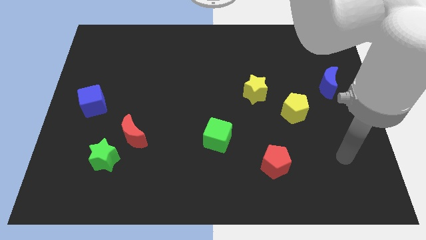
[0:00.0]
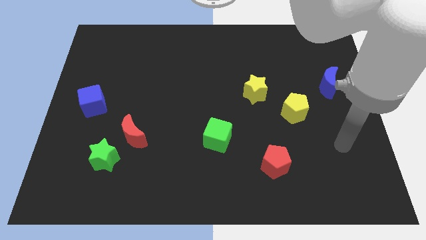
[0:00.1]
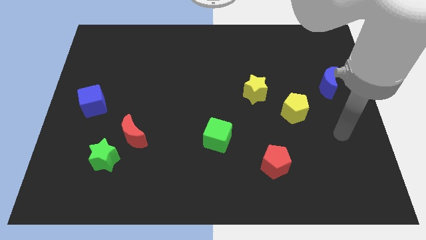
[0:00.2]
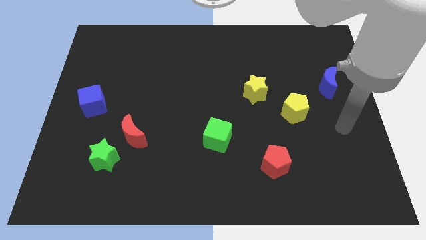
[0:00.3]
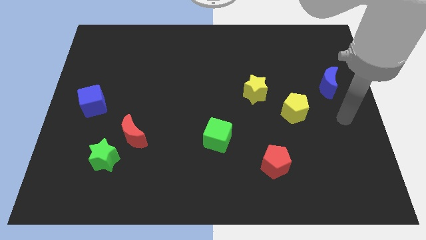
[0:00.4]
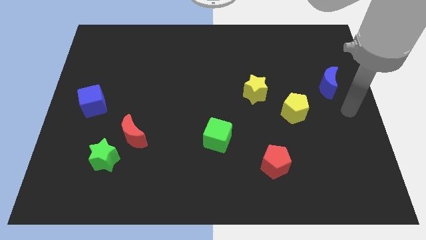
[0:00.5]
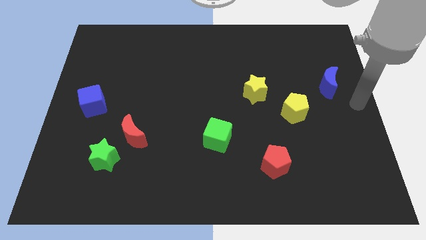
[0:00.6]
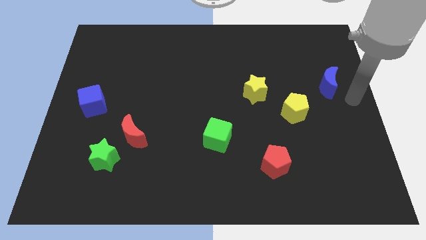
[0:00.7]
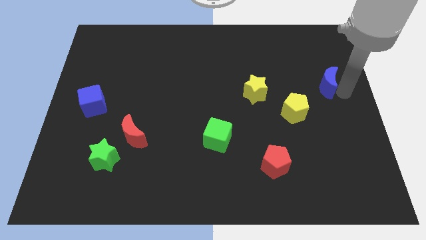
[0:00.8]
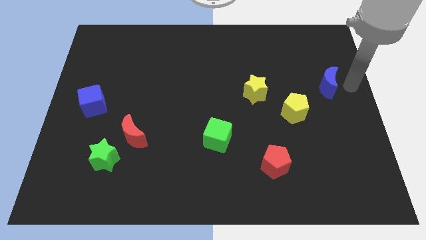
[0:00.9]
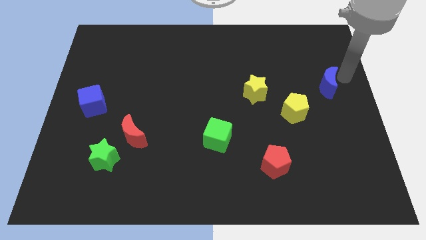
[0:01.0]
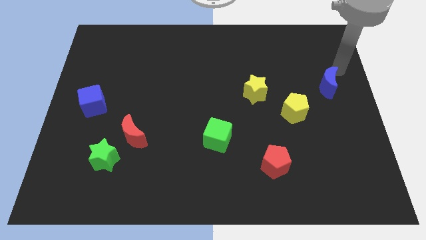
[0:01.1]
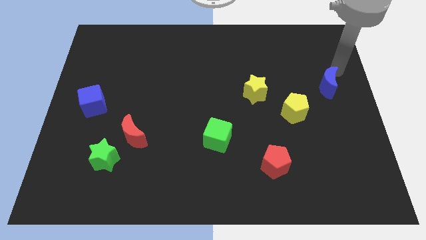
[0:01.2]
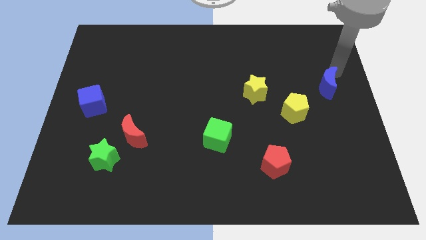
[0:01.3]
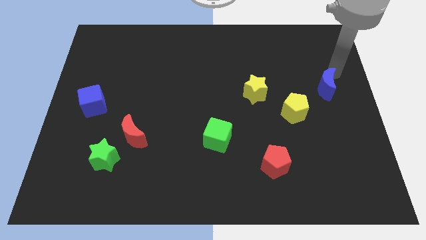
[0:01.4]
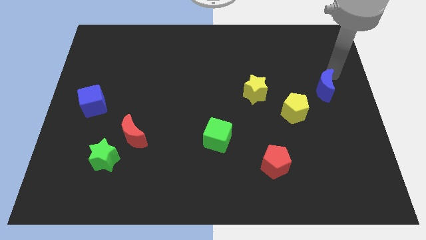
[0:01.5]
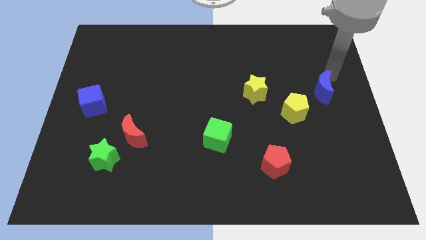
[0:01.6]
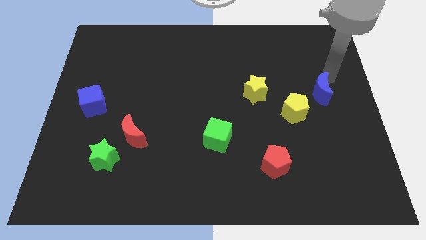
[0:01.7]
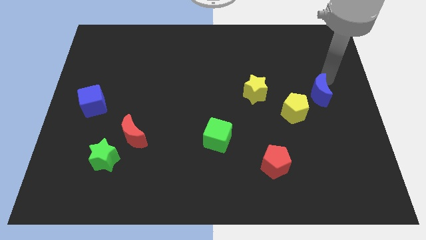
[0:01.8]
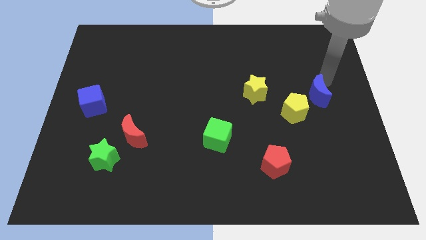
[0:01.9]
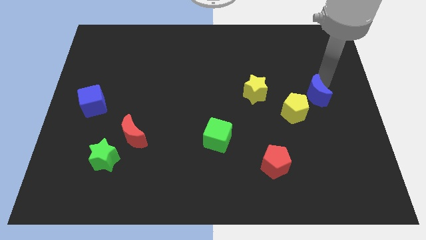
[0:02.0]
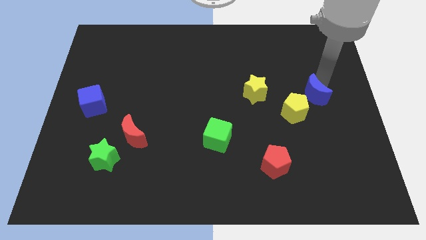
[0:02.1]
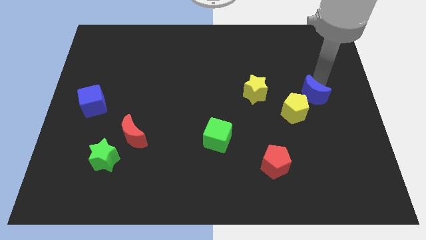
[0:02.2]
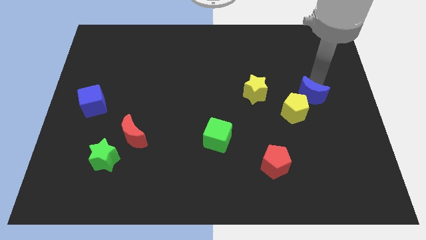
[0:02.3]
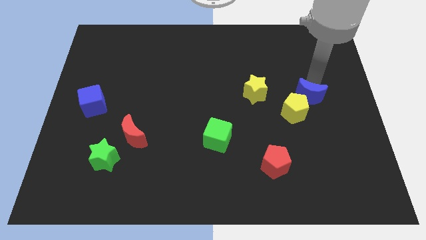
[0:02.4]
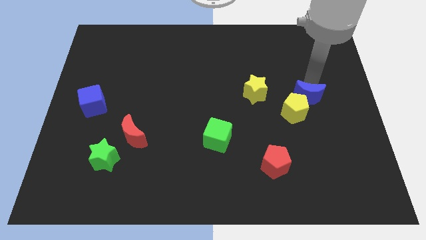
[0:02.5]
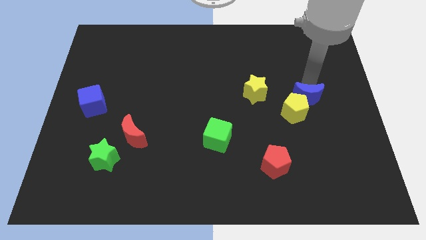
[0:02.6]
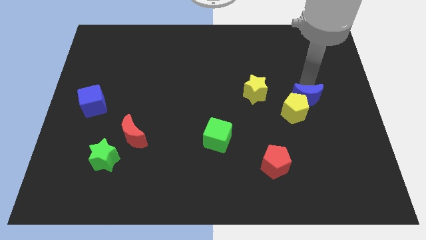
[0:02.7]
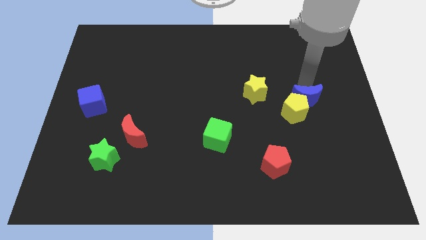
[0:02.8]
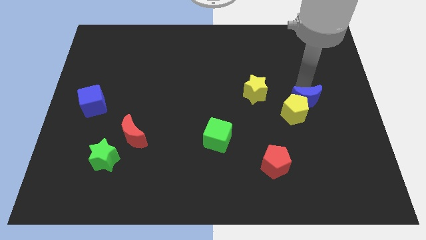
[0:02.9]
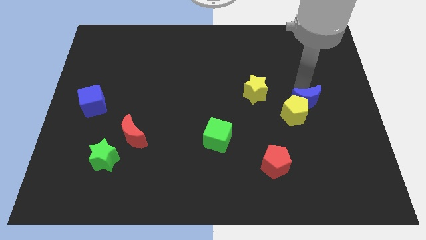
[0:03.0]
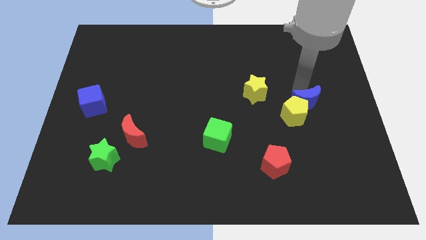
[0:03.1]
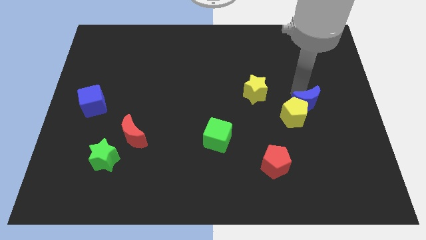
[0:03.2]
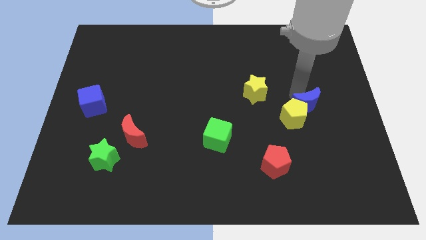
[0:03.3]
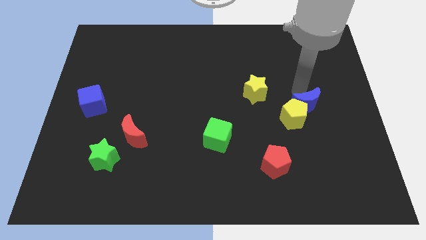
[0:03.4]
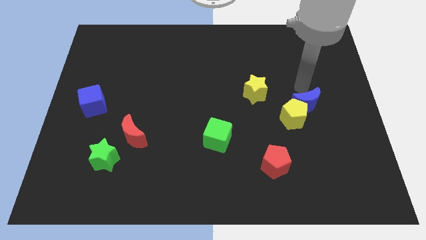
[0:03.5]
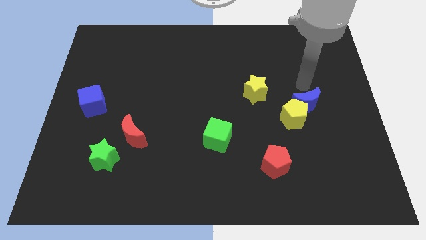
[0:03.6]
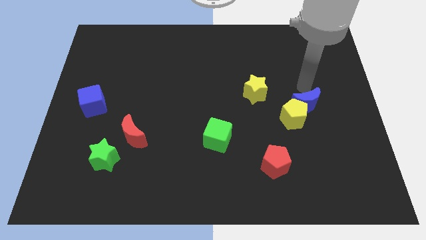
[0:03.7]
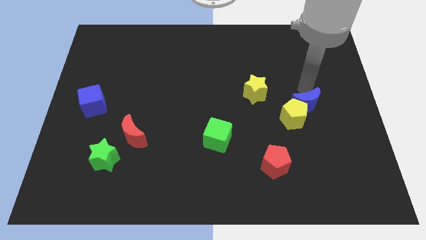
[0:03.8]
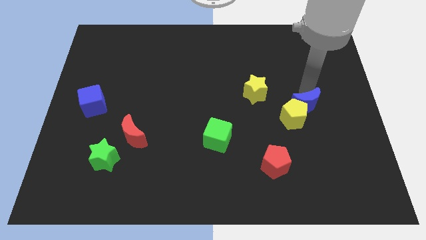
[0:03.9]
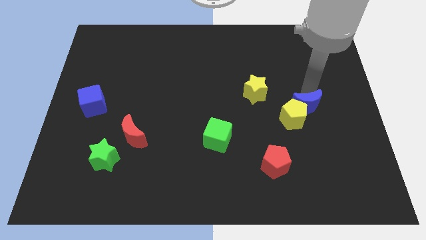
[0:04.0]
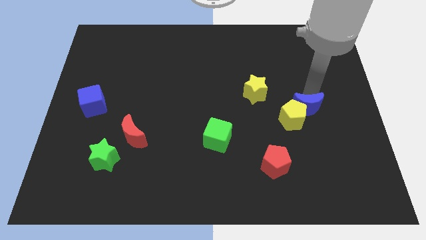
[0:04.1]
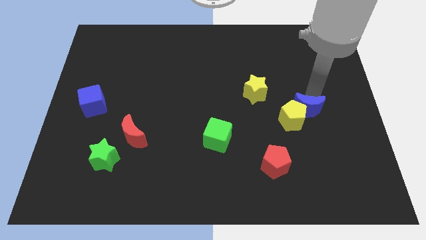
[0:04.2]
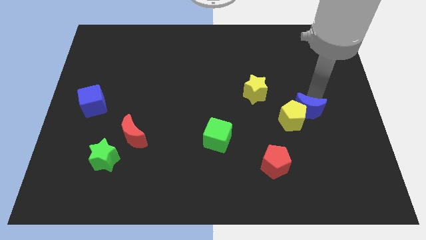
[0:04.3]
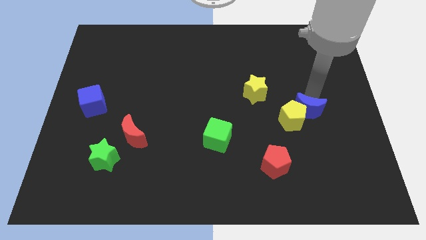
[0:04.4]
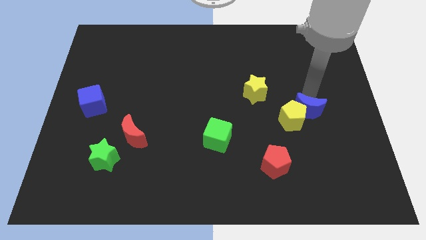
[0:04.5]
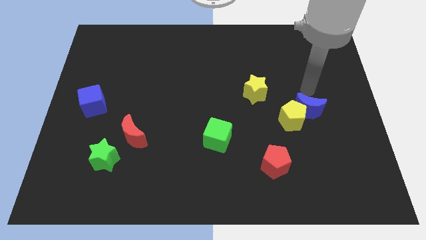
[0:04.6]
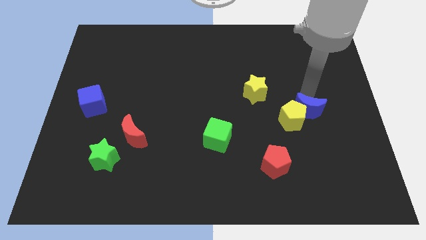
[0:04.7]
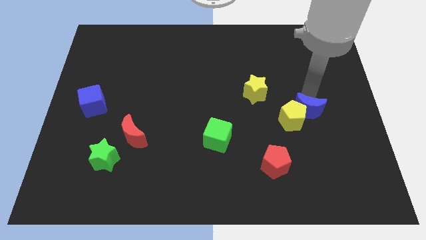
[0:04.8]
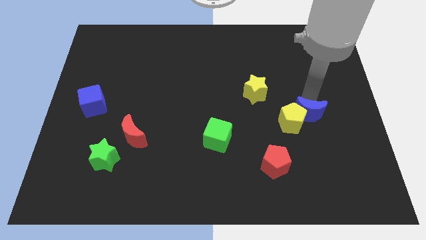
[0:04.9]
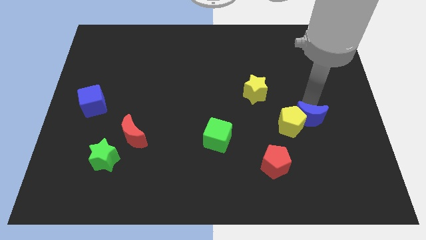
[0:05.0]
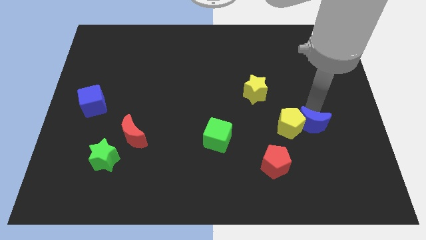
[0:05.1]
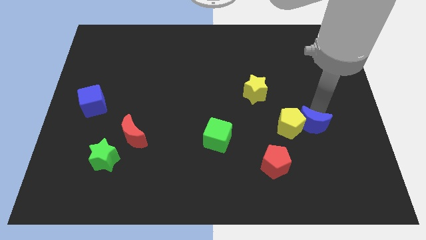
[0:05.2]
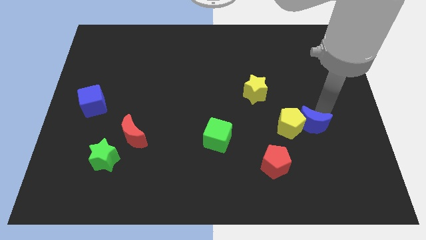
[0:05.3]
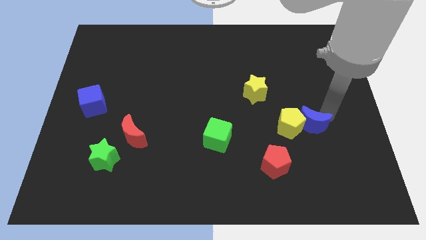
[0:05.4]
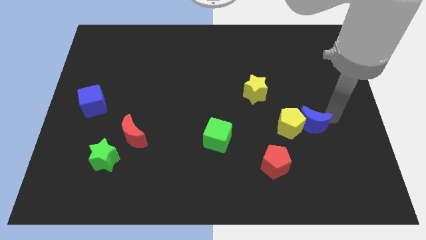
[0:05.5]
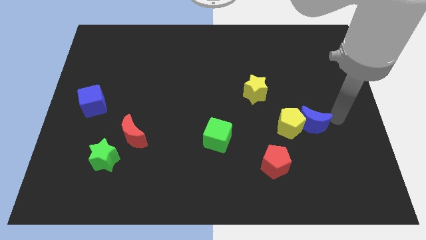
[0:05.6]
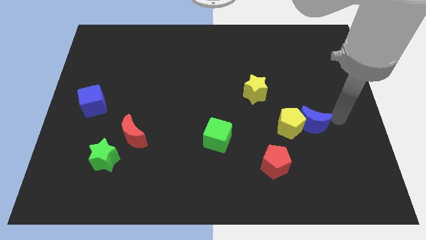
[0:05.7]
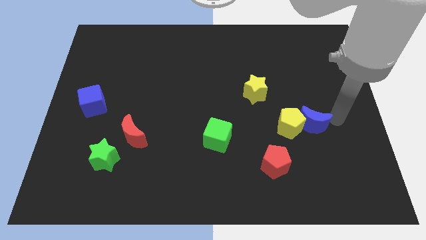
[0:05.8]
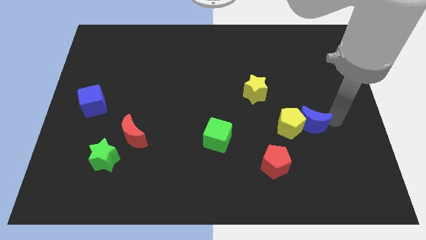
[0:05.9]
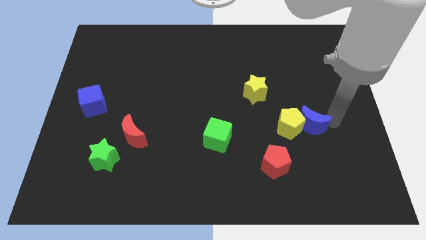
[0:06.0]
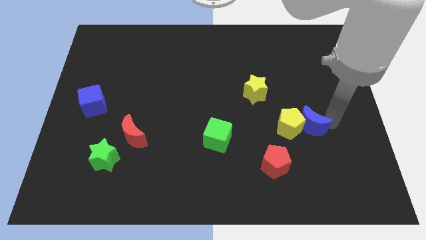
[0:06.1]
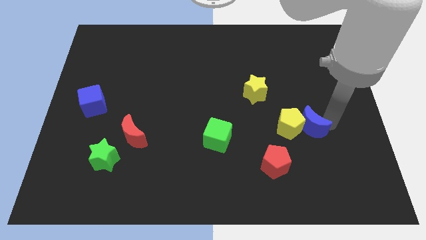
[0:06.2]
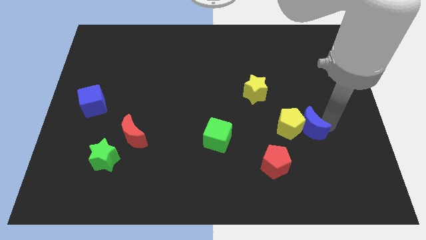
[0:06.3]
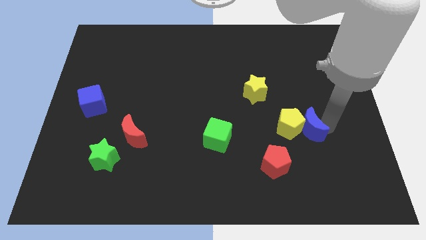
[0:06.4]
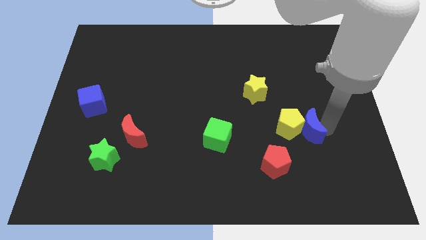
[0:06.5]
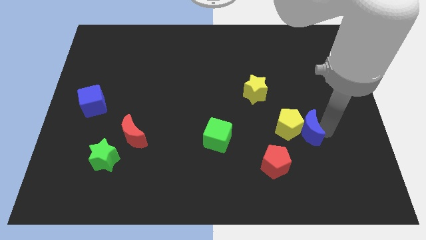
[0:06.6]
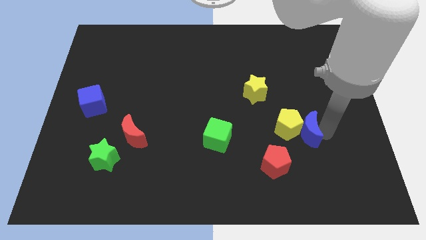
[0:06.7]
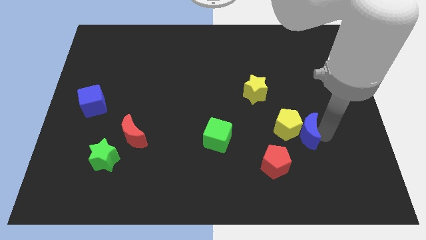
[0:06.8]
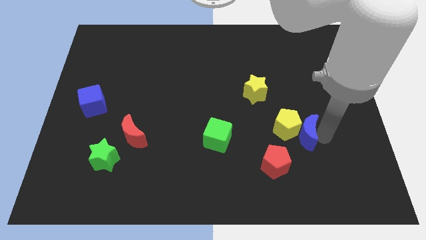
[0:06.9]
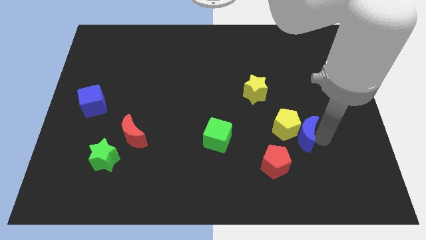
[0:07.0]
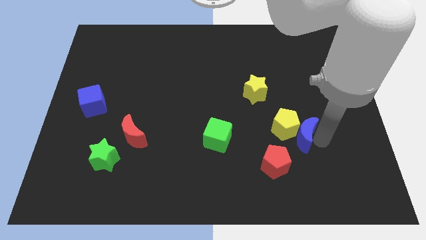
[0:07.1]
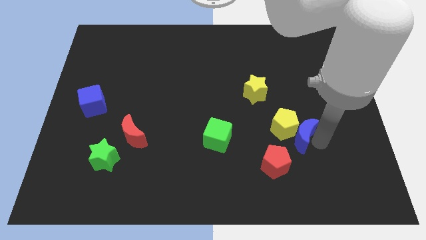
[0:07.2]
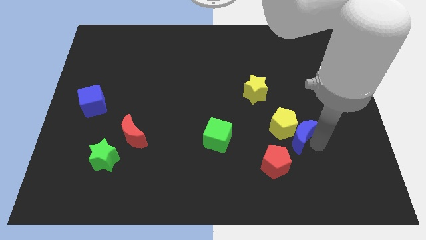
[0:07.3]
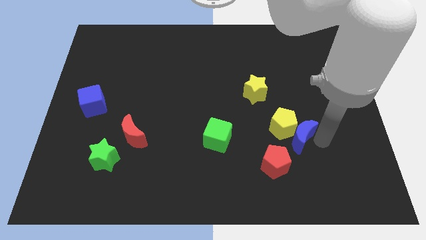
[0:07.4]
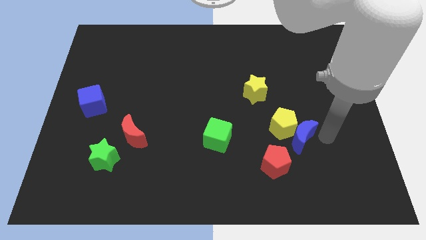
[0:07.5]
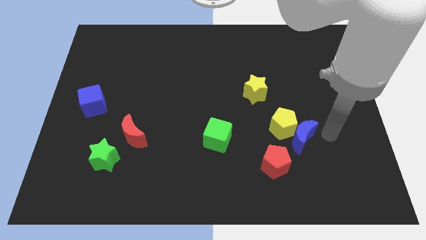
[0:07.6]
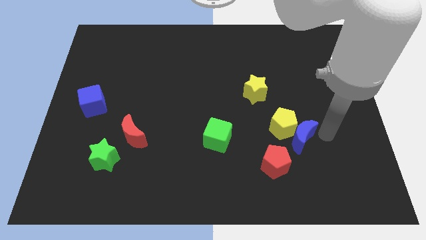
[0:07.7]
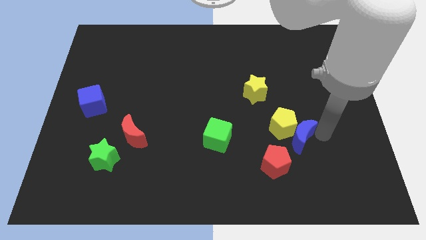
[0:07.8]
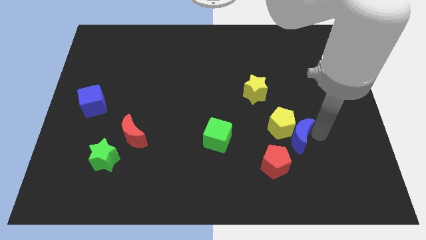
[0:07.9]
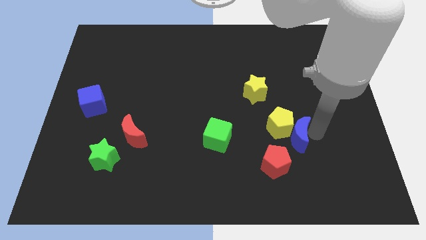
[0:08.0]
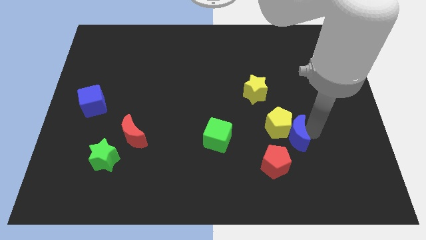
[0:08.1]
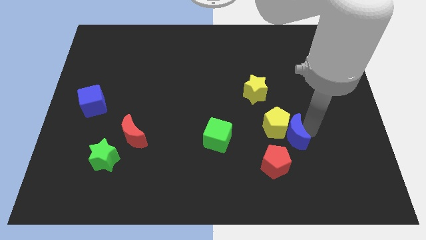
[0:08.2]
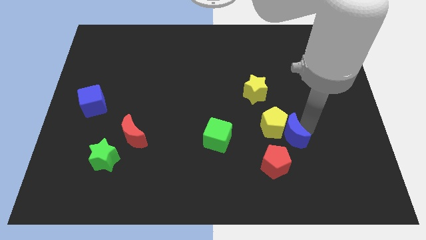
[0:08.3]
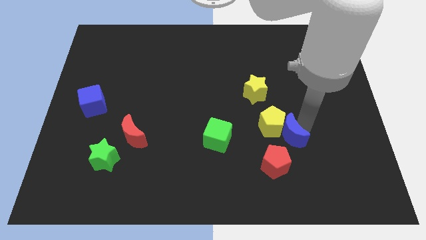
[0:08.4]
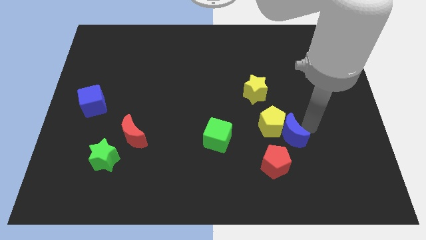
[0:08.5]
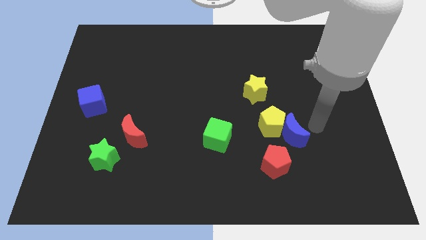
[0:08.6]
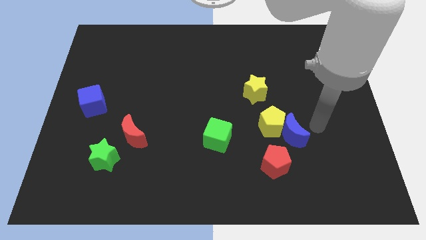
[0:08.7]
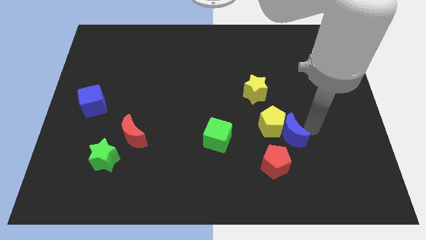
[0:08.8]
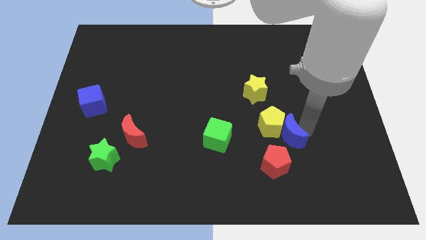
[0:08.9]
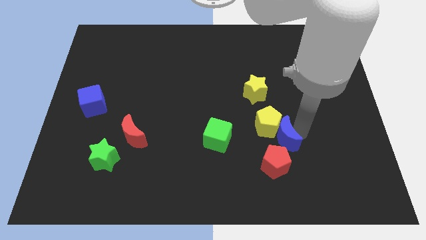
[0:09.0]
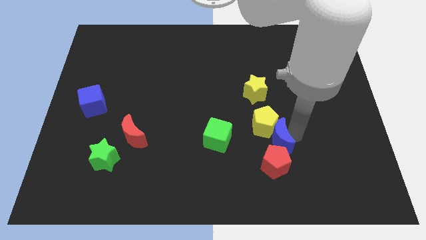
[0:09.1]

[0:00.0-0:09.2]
slide the blue moon down and to the left
